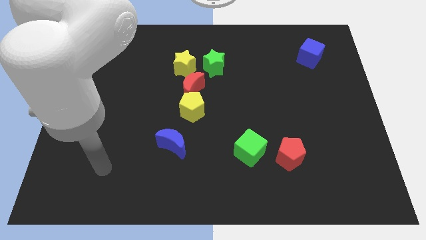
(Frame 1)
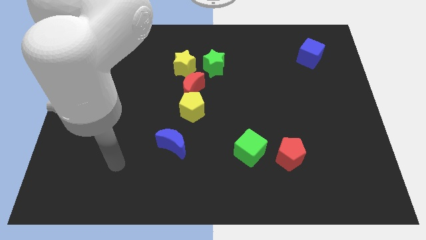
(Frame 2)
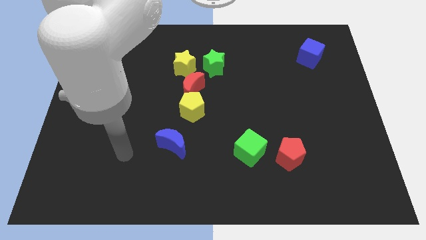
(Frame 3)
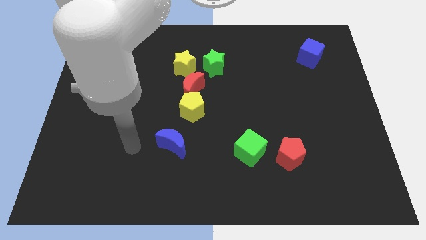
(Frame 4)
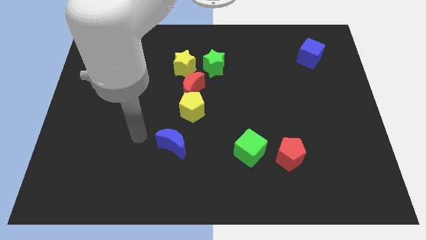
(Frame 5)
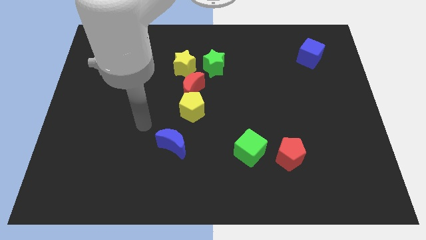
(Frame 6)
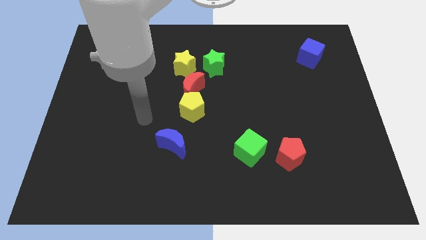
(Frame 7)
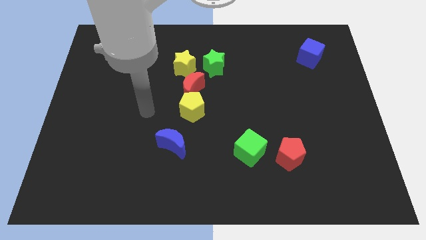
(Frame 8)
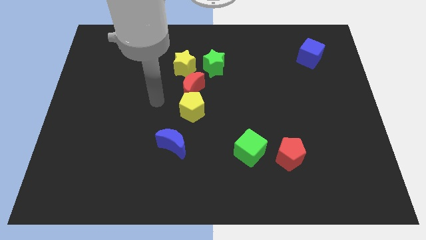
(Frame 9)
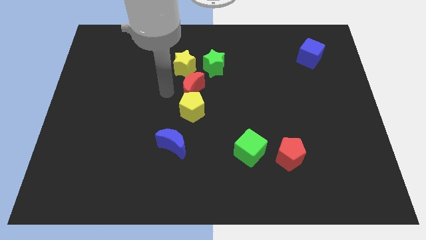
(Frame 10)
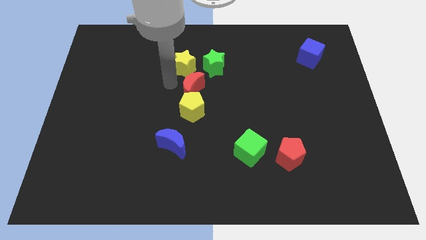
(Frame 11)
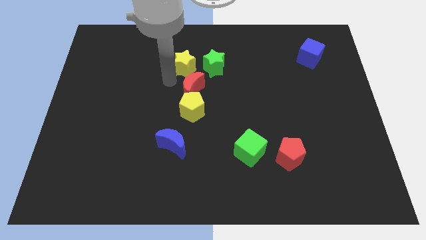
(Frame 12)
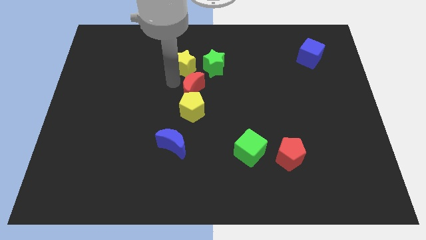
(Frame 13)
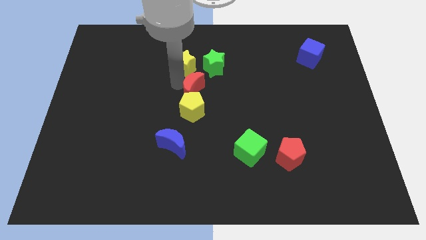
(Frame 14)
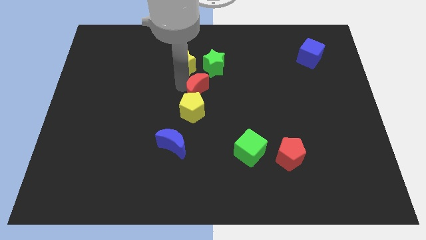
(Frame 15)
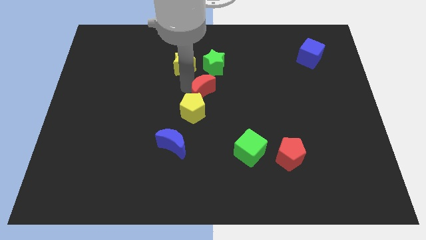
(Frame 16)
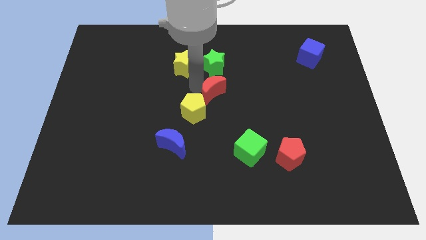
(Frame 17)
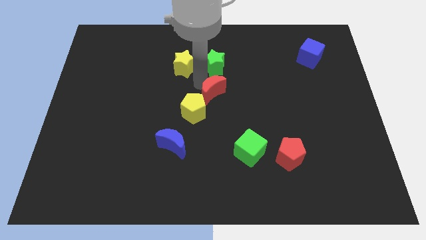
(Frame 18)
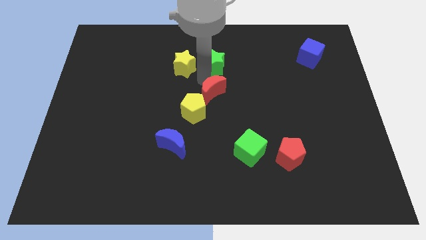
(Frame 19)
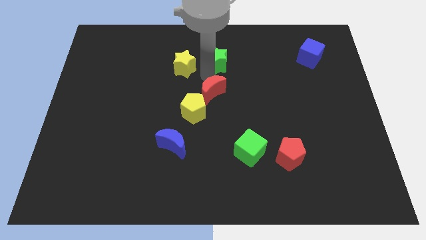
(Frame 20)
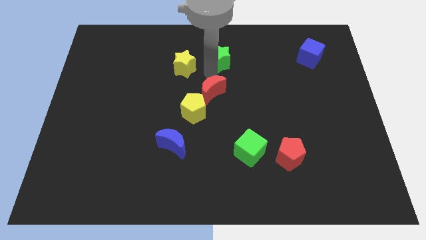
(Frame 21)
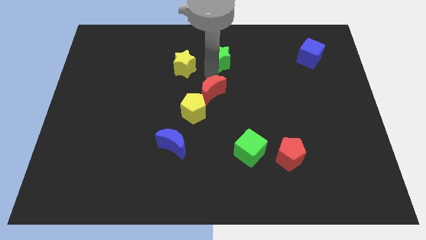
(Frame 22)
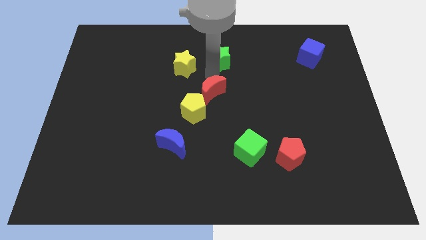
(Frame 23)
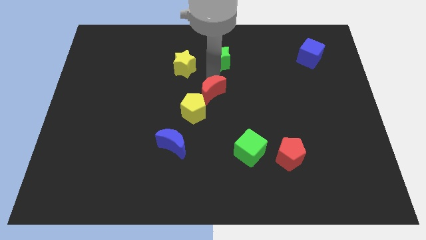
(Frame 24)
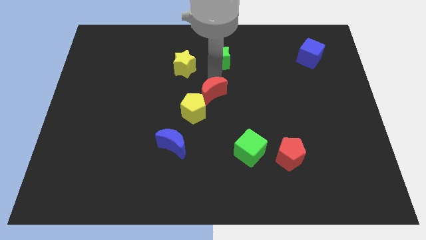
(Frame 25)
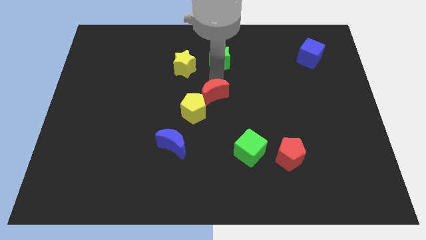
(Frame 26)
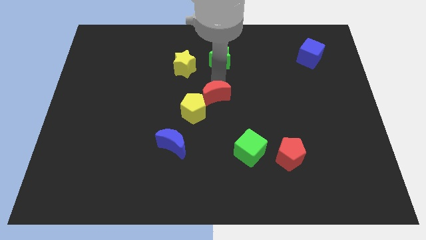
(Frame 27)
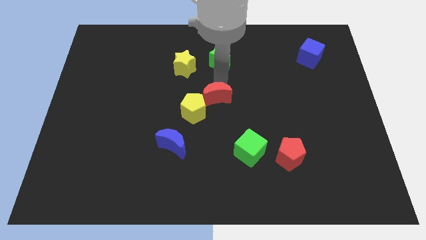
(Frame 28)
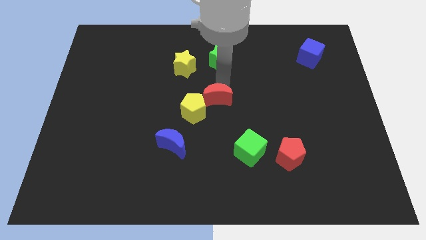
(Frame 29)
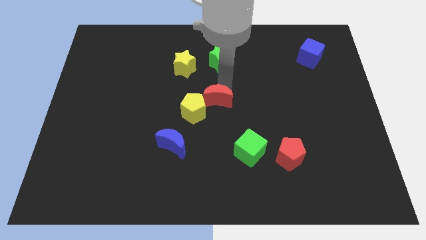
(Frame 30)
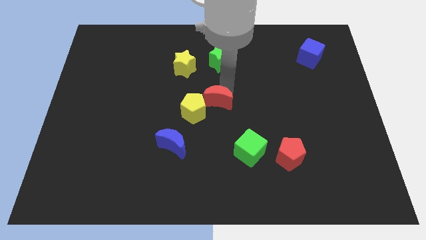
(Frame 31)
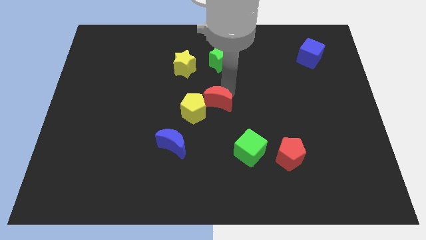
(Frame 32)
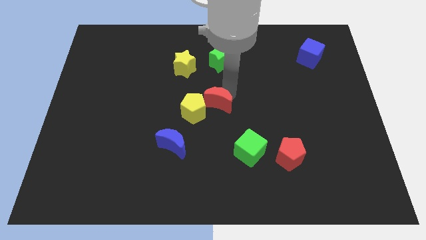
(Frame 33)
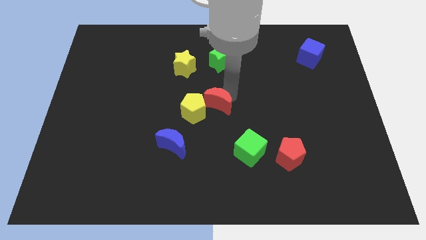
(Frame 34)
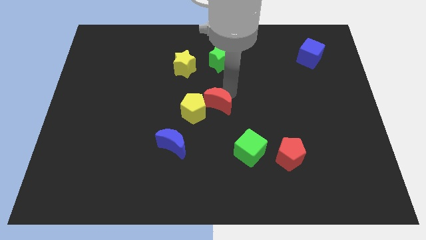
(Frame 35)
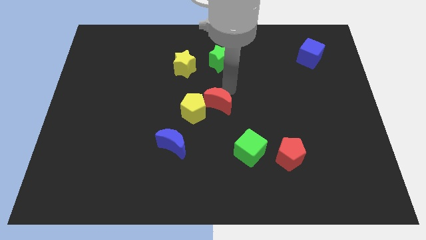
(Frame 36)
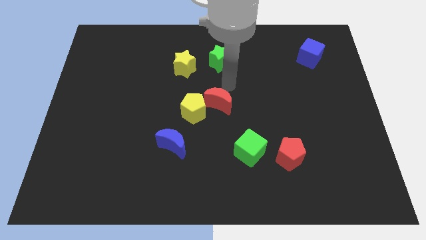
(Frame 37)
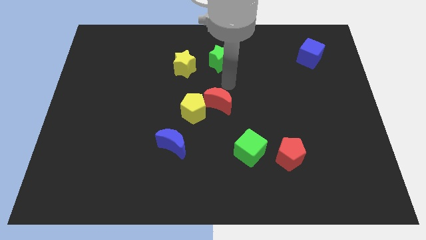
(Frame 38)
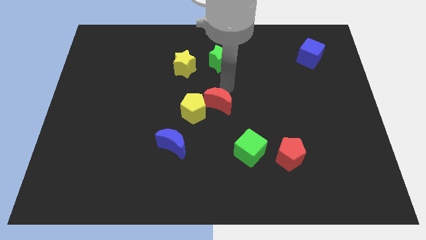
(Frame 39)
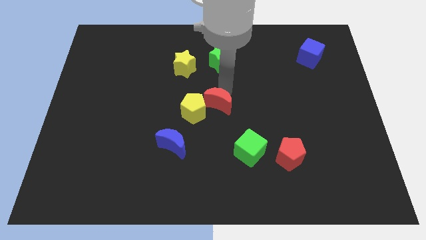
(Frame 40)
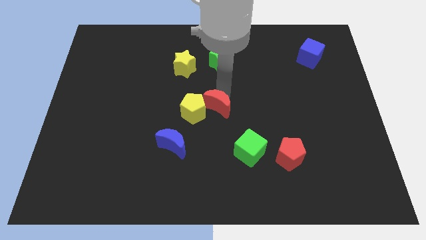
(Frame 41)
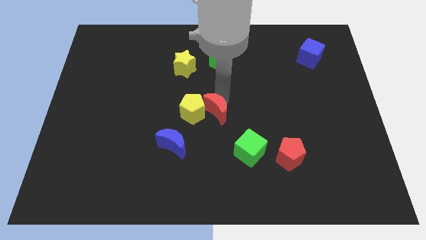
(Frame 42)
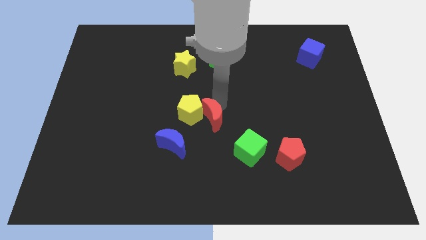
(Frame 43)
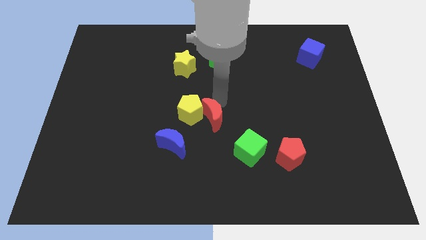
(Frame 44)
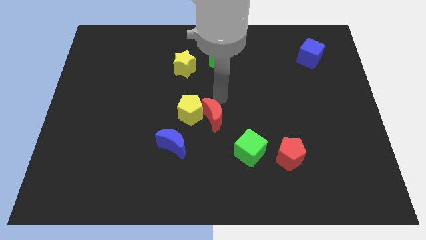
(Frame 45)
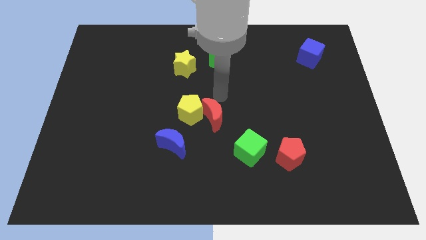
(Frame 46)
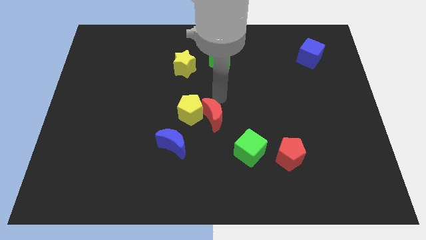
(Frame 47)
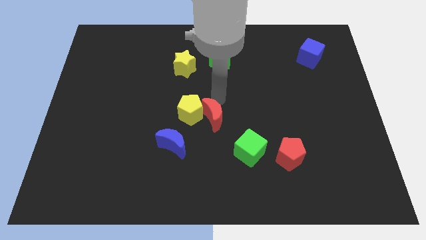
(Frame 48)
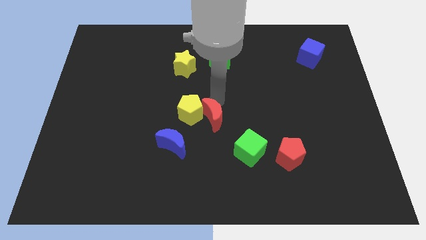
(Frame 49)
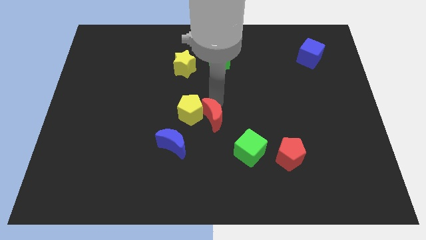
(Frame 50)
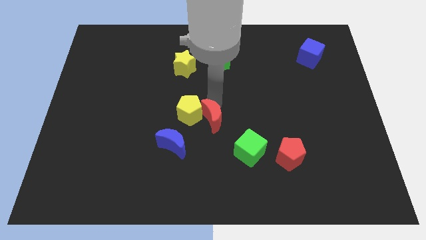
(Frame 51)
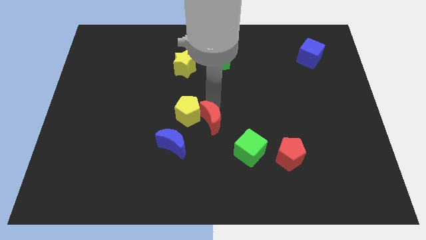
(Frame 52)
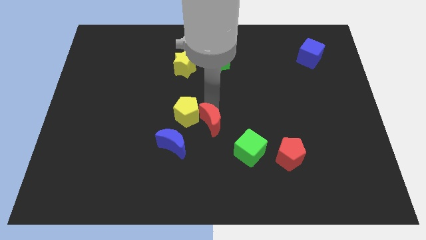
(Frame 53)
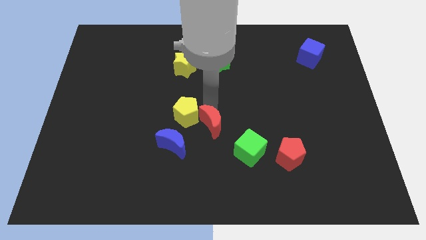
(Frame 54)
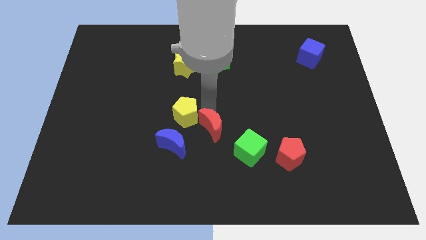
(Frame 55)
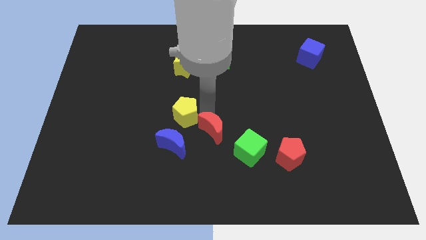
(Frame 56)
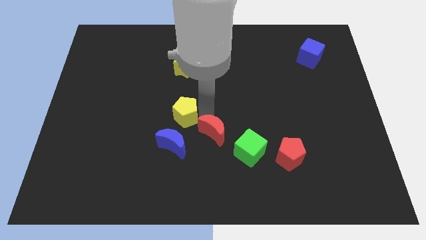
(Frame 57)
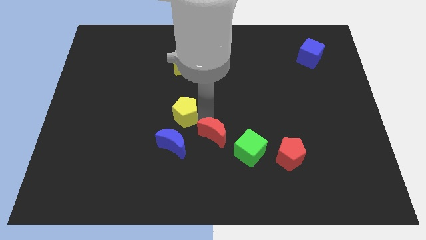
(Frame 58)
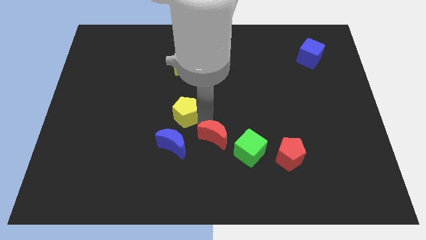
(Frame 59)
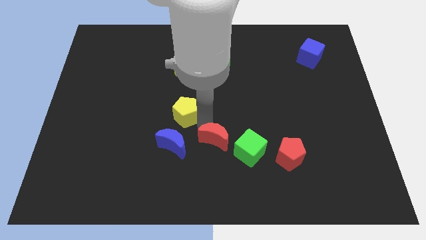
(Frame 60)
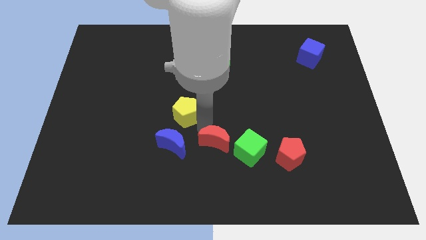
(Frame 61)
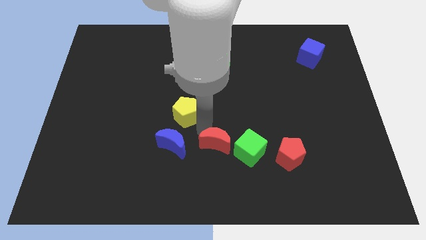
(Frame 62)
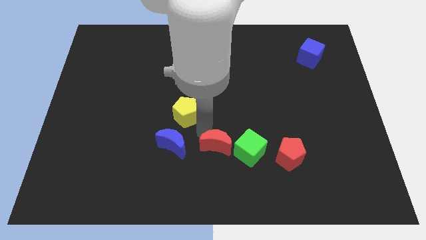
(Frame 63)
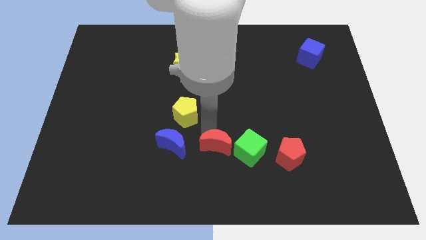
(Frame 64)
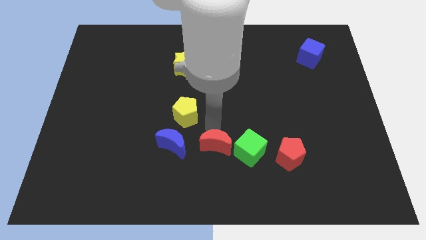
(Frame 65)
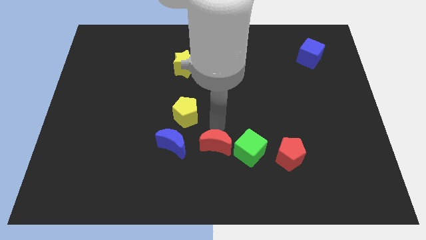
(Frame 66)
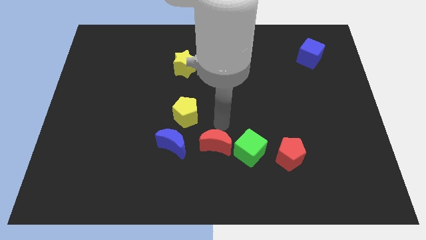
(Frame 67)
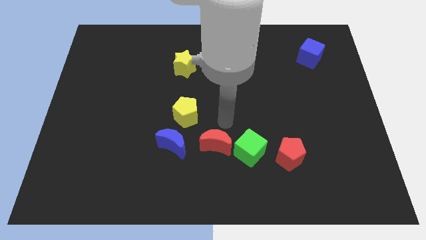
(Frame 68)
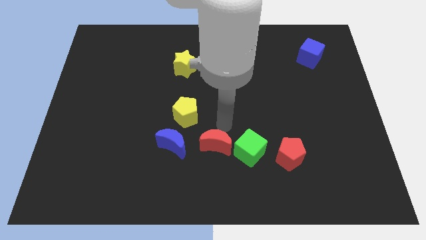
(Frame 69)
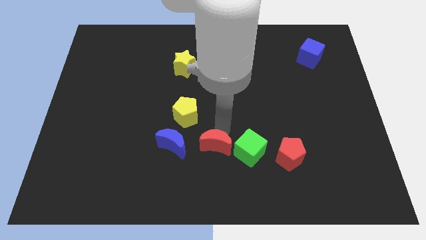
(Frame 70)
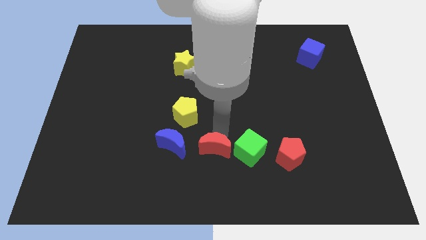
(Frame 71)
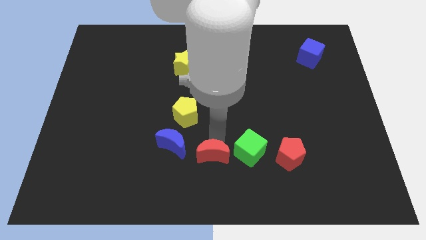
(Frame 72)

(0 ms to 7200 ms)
push the red moon to the bottom
